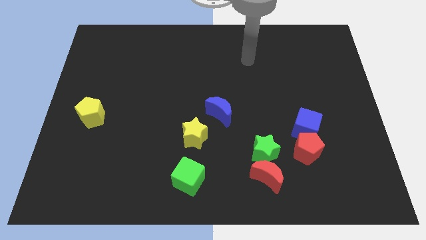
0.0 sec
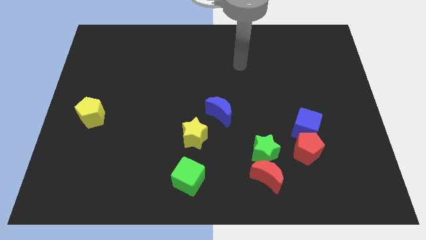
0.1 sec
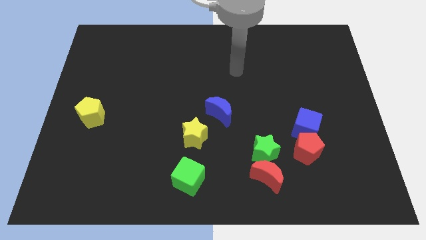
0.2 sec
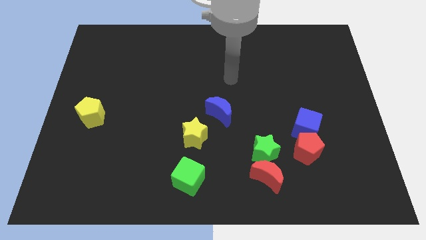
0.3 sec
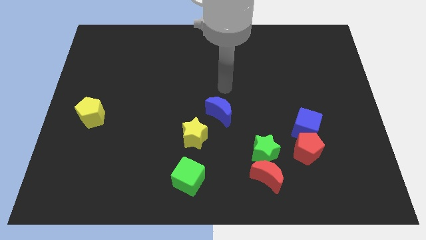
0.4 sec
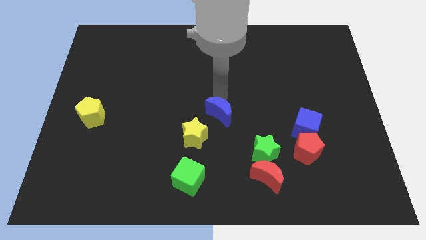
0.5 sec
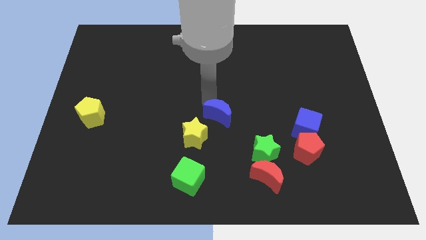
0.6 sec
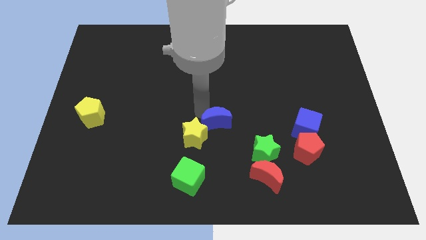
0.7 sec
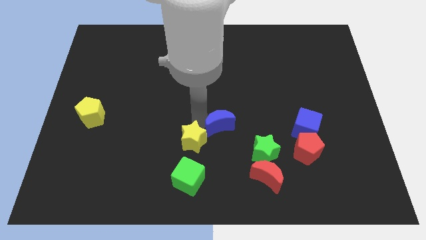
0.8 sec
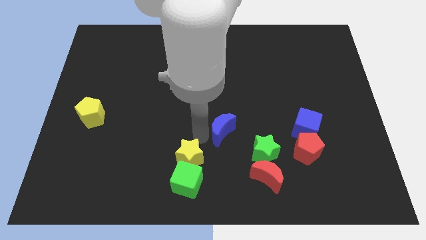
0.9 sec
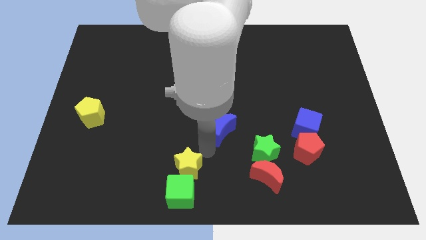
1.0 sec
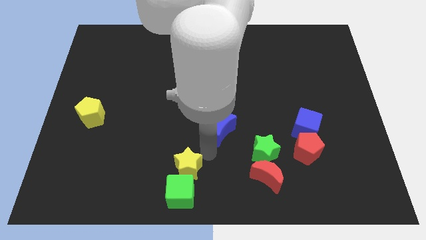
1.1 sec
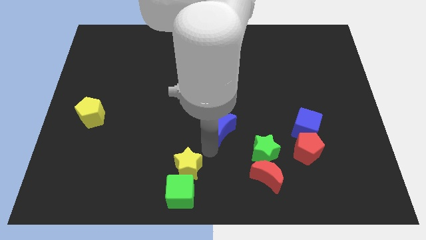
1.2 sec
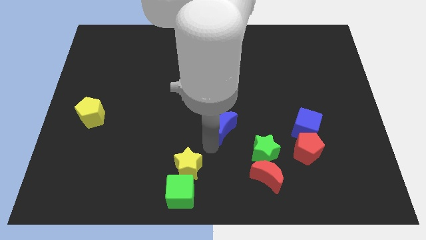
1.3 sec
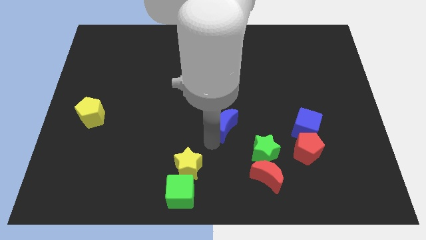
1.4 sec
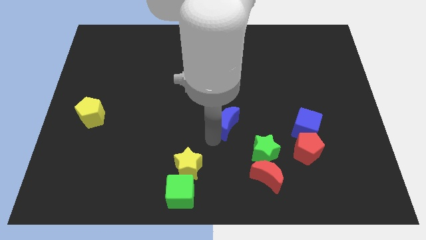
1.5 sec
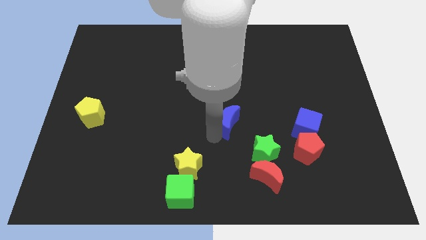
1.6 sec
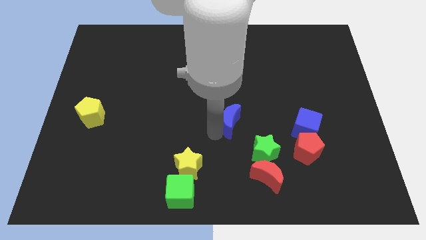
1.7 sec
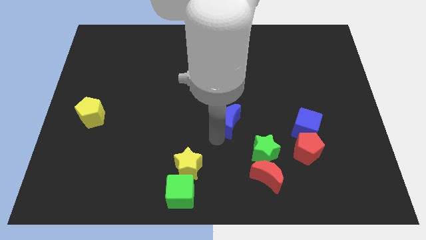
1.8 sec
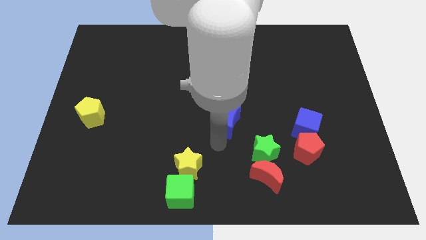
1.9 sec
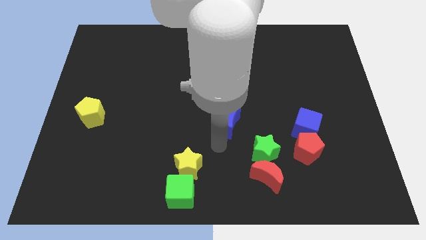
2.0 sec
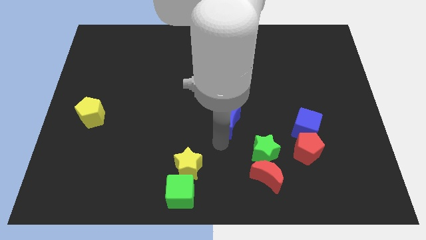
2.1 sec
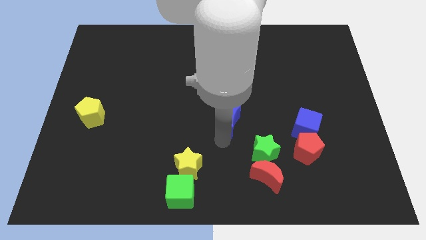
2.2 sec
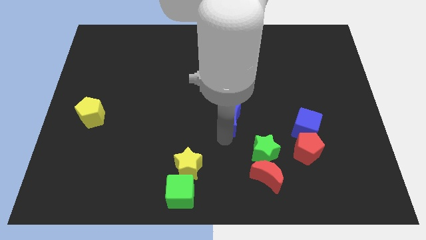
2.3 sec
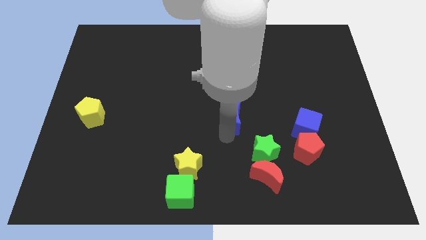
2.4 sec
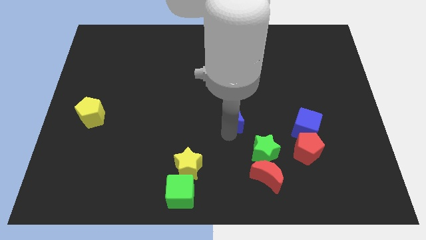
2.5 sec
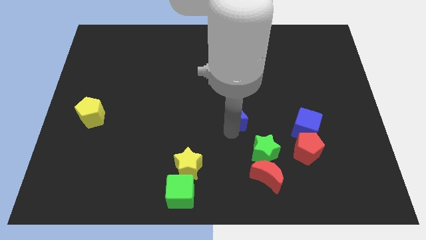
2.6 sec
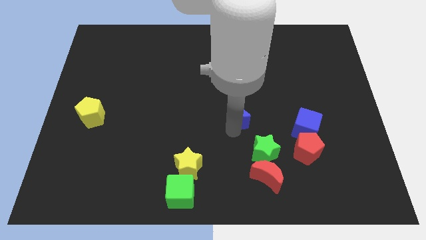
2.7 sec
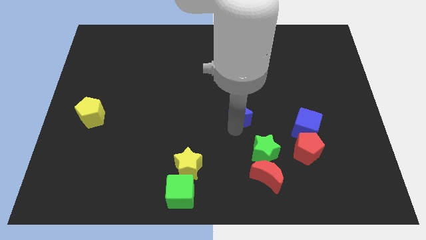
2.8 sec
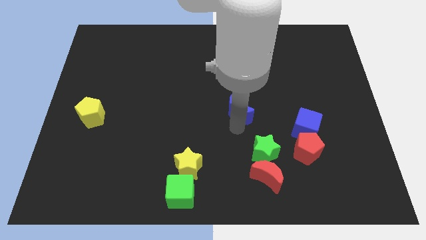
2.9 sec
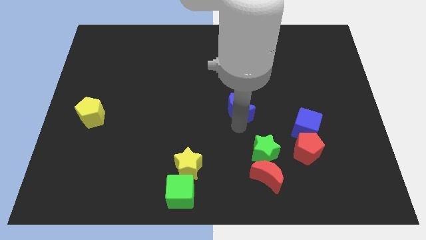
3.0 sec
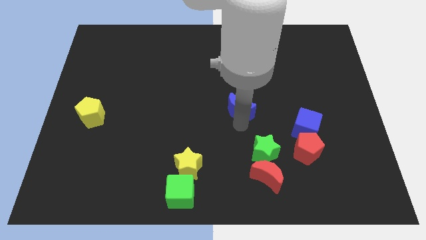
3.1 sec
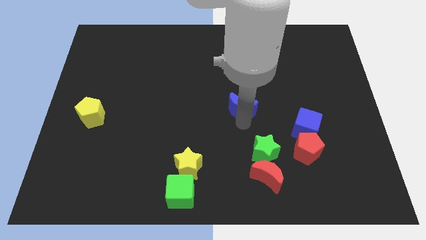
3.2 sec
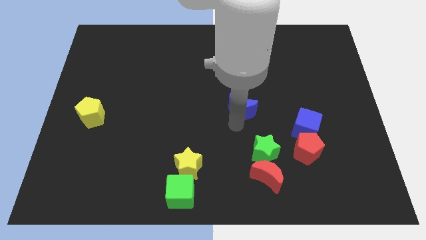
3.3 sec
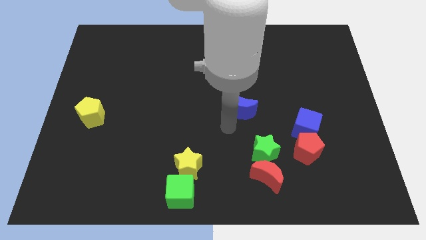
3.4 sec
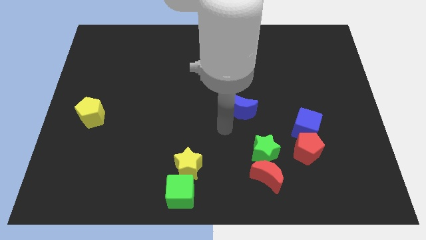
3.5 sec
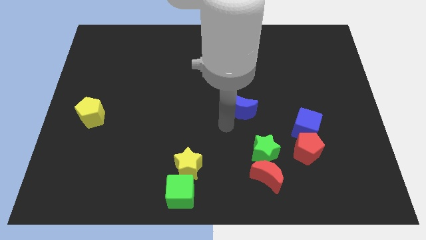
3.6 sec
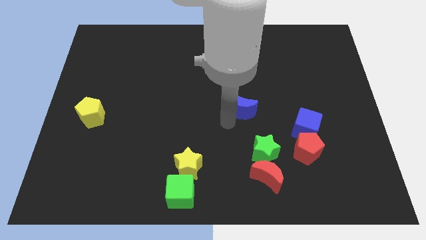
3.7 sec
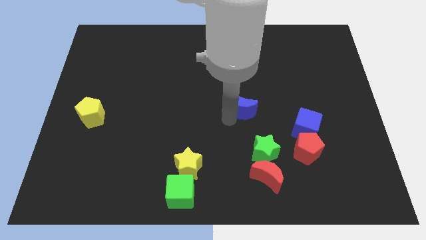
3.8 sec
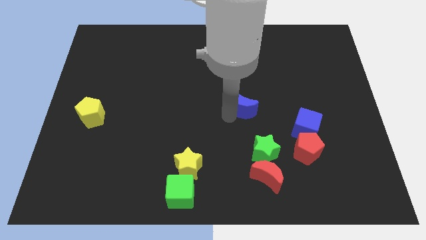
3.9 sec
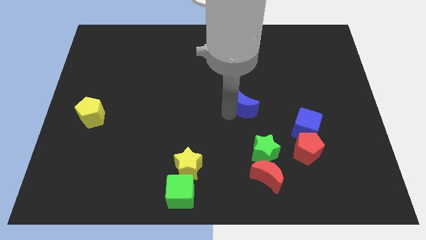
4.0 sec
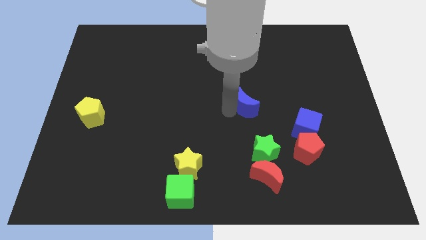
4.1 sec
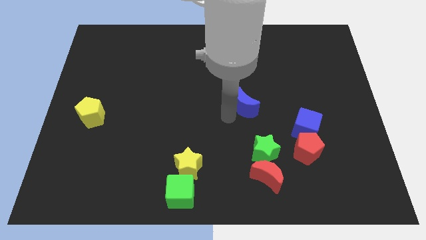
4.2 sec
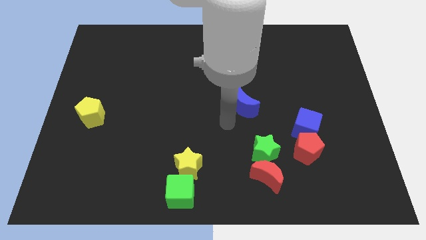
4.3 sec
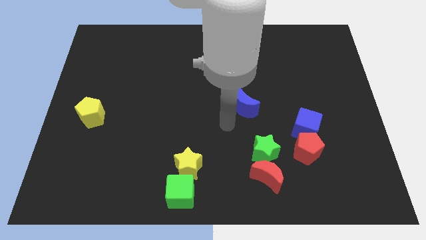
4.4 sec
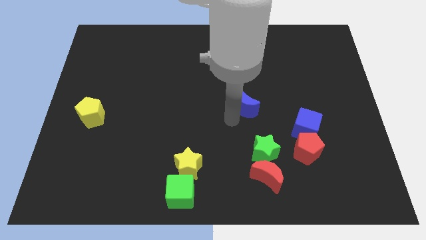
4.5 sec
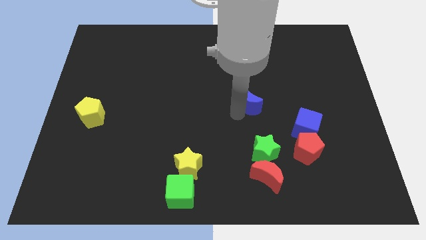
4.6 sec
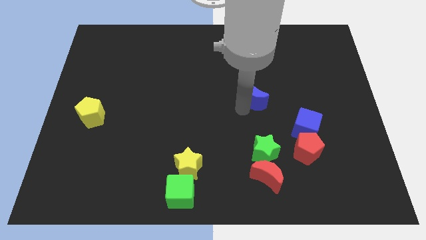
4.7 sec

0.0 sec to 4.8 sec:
push the blue moon upwards and right diagonally somewhat

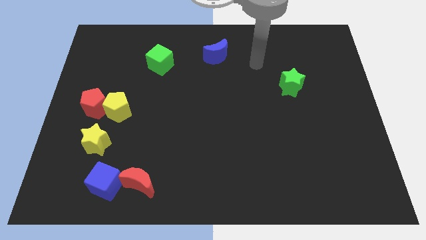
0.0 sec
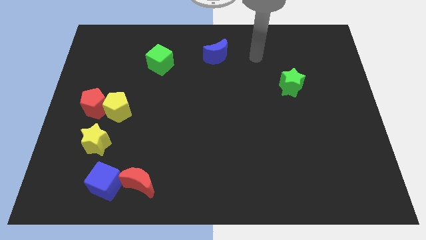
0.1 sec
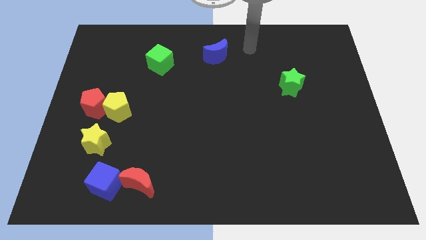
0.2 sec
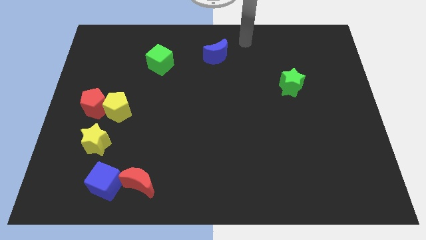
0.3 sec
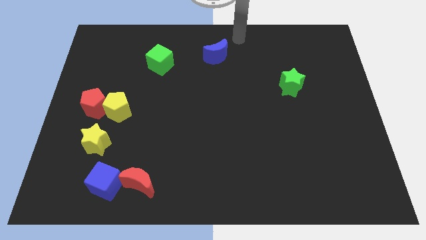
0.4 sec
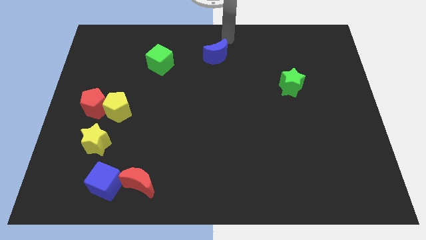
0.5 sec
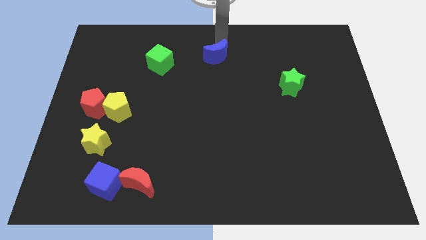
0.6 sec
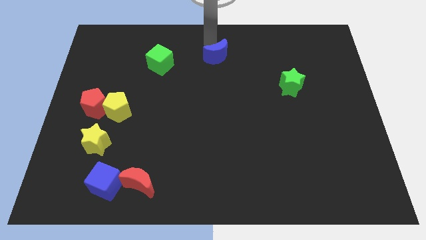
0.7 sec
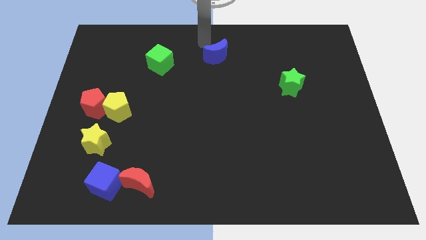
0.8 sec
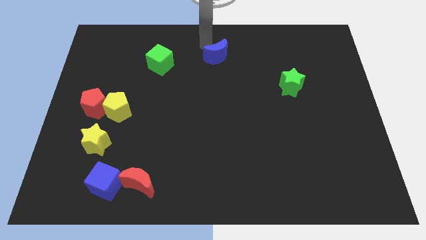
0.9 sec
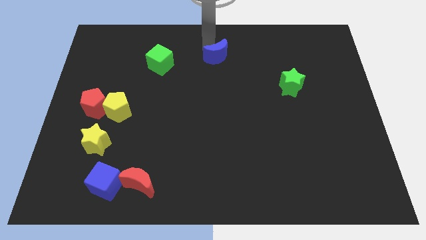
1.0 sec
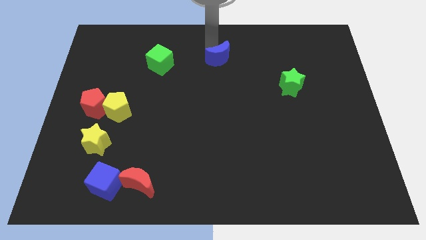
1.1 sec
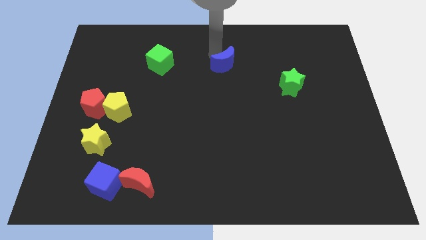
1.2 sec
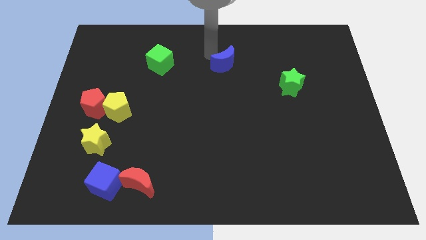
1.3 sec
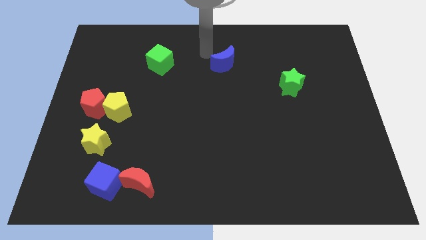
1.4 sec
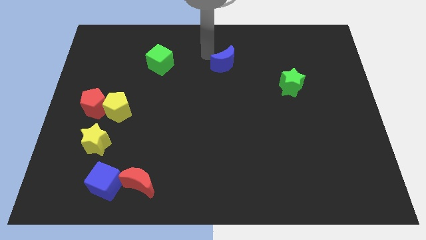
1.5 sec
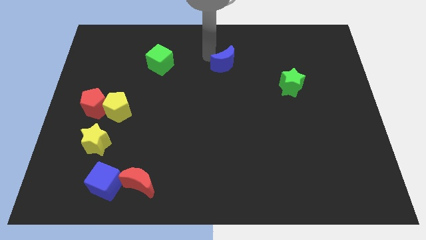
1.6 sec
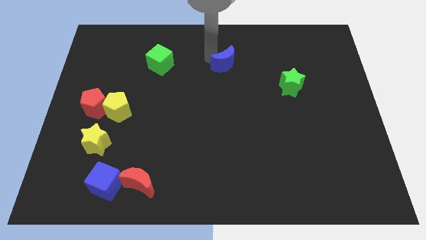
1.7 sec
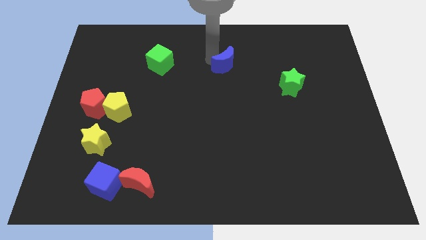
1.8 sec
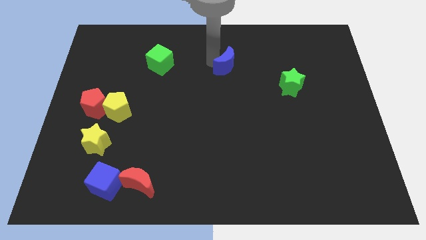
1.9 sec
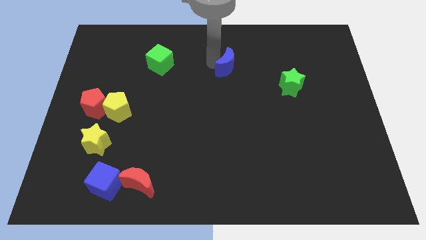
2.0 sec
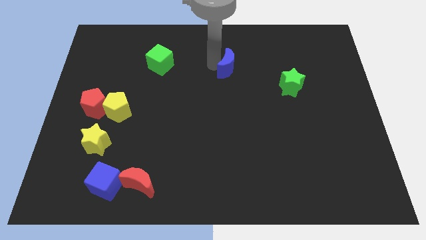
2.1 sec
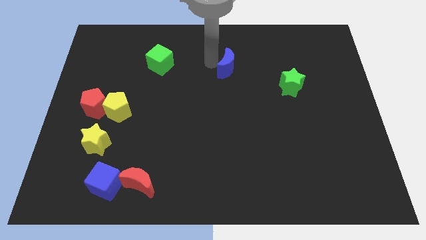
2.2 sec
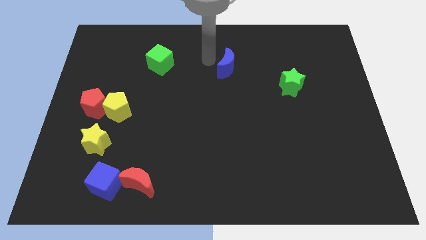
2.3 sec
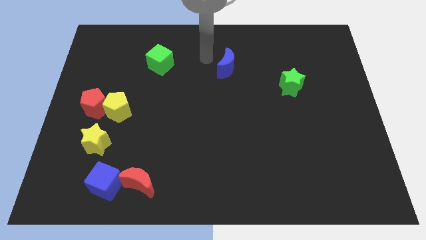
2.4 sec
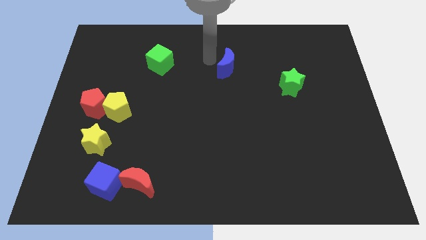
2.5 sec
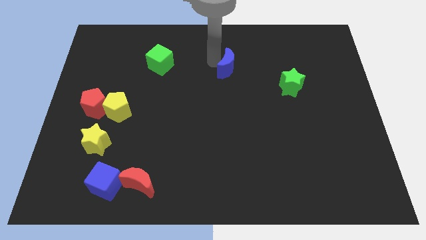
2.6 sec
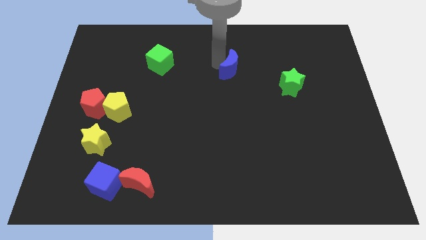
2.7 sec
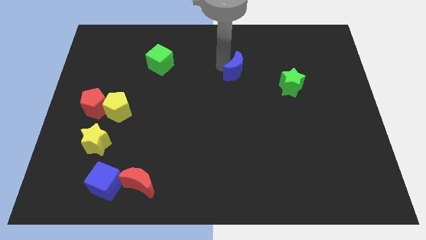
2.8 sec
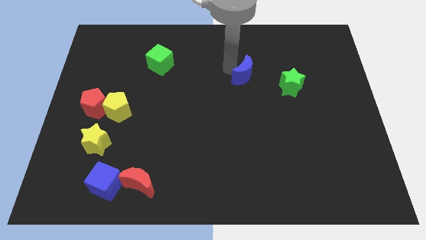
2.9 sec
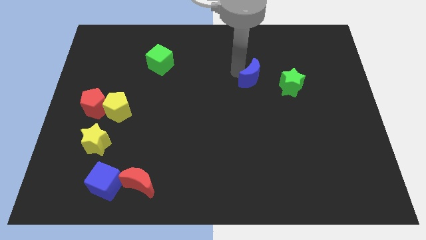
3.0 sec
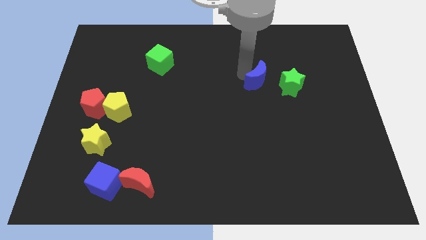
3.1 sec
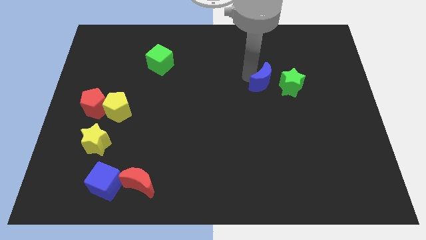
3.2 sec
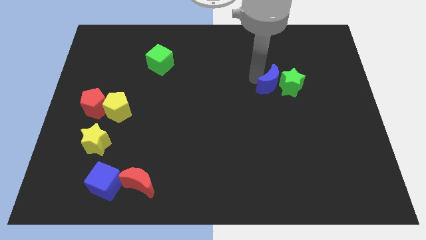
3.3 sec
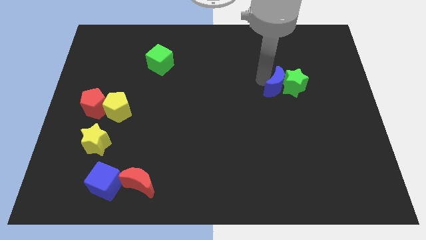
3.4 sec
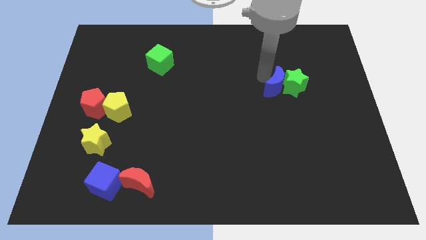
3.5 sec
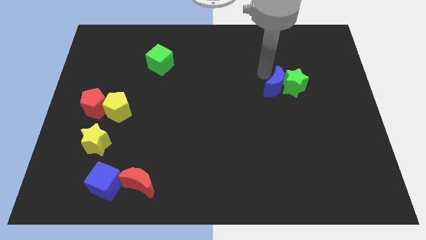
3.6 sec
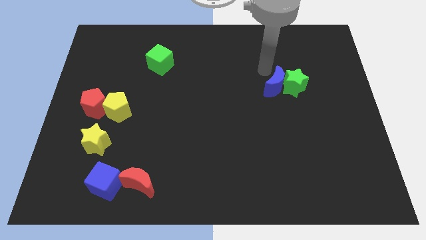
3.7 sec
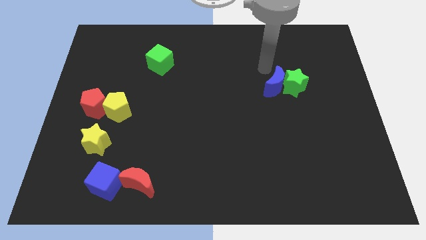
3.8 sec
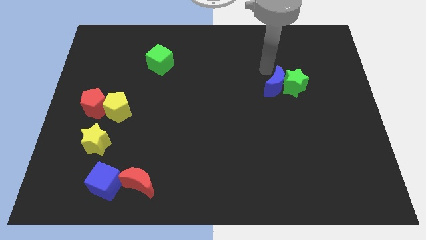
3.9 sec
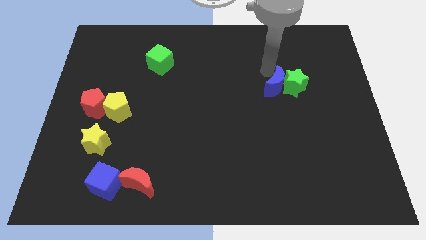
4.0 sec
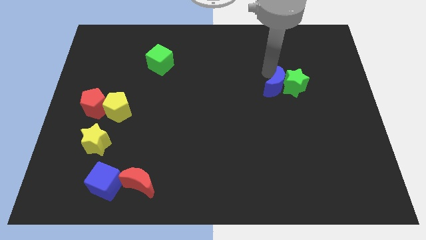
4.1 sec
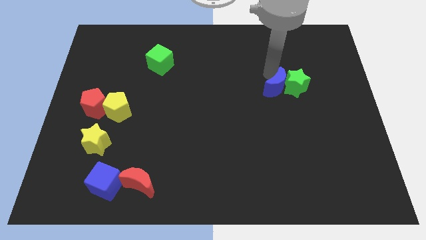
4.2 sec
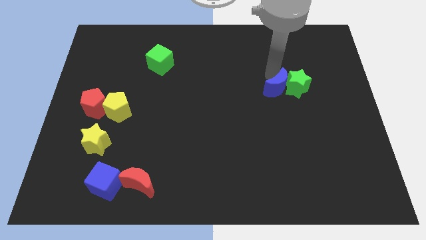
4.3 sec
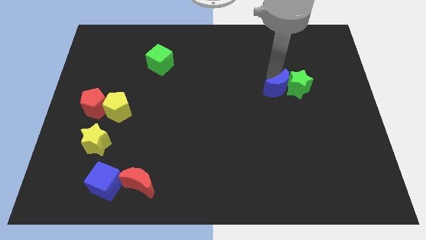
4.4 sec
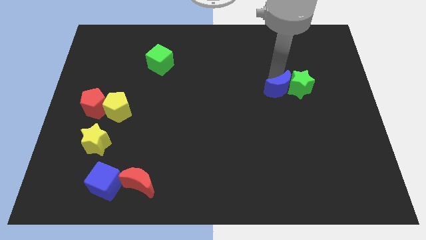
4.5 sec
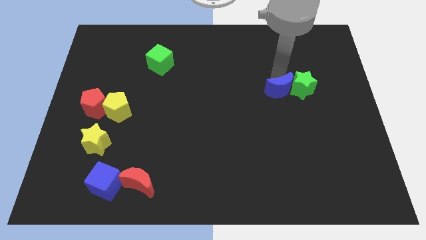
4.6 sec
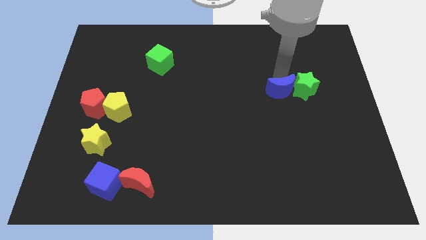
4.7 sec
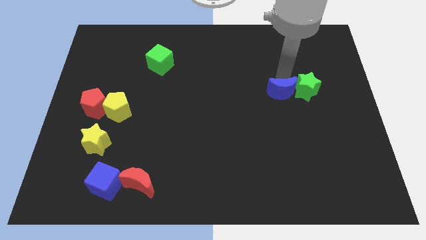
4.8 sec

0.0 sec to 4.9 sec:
push the blue moon downwards and right
